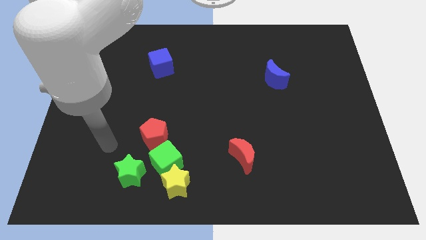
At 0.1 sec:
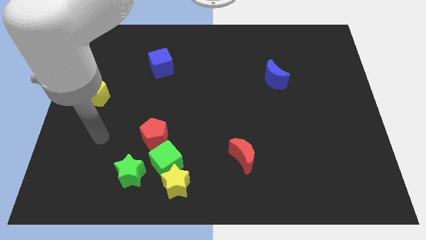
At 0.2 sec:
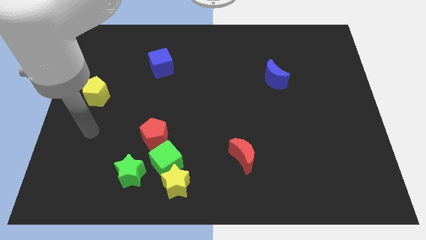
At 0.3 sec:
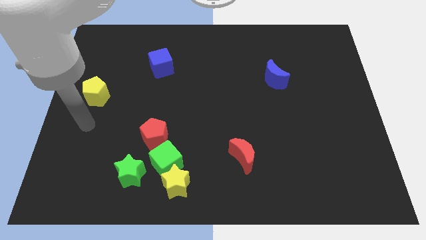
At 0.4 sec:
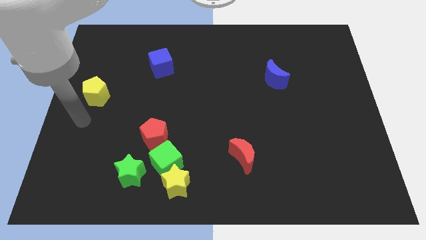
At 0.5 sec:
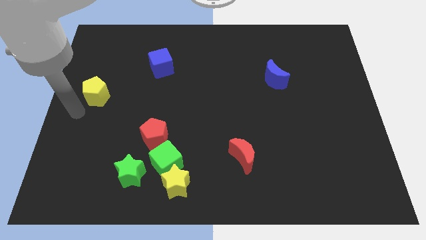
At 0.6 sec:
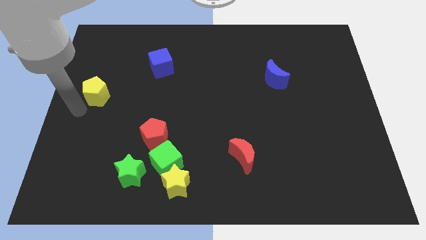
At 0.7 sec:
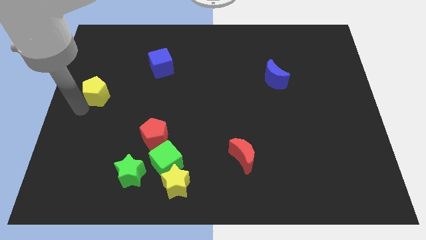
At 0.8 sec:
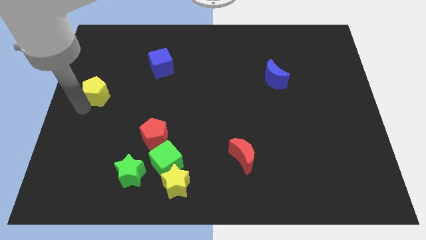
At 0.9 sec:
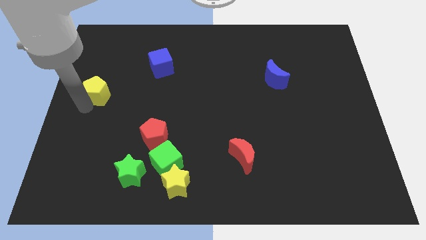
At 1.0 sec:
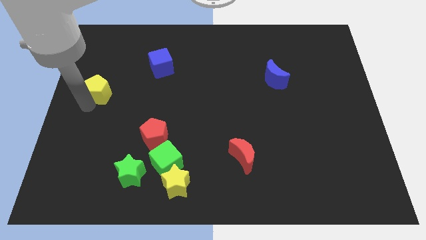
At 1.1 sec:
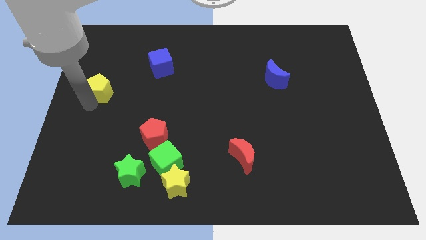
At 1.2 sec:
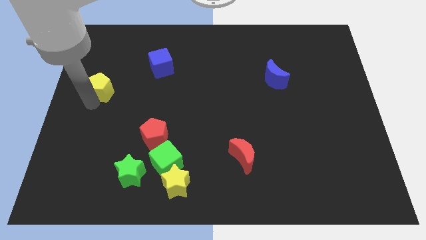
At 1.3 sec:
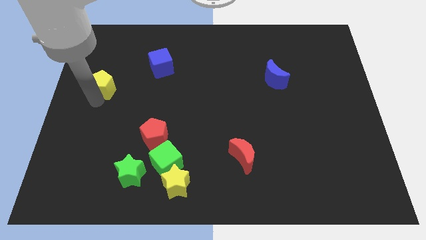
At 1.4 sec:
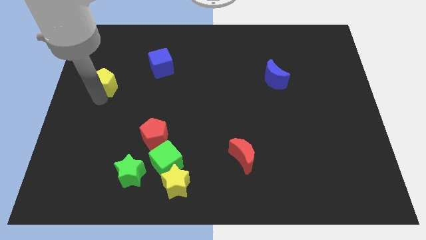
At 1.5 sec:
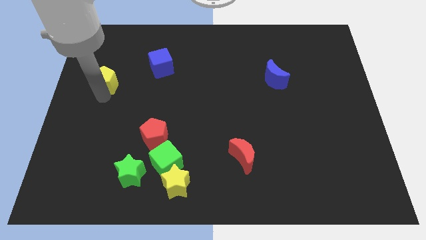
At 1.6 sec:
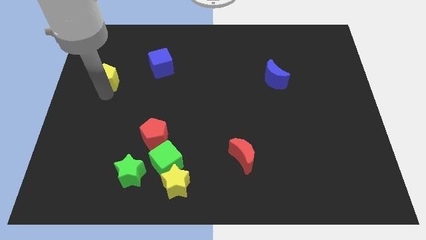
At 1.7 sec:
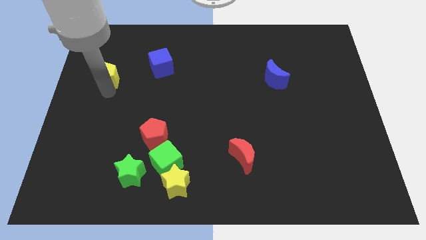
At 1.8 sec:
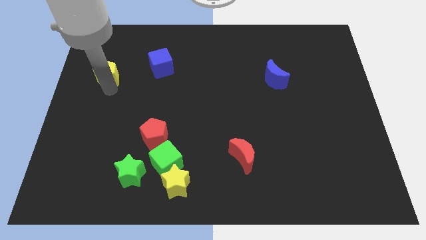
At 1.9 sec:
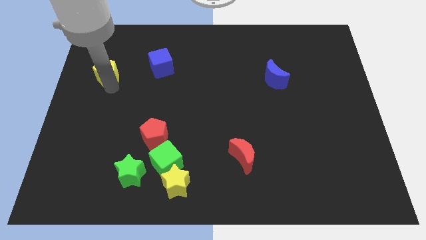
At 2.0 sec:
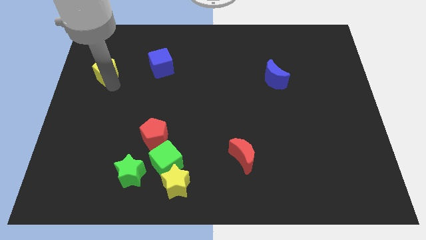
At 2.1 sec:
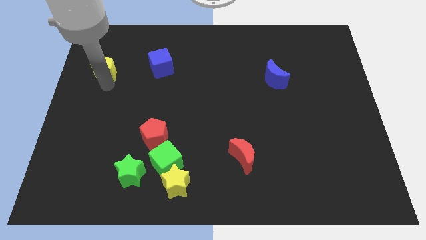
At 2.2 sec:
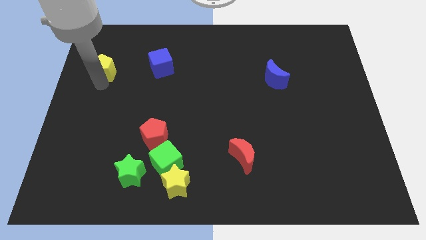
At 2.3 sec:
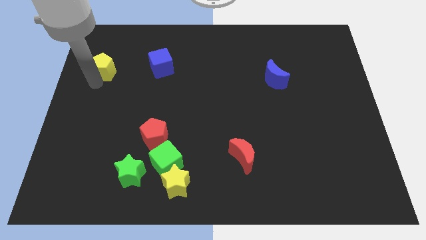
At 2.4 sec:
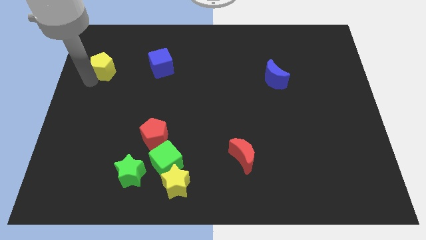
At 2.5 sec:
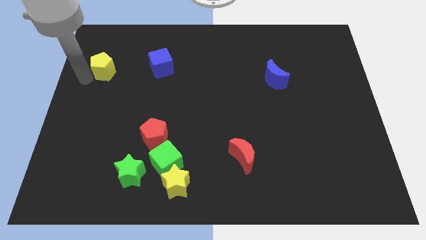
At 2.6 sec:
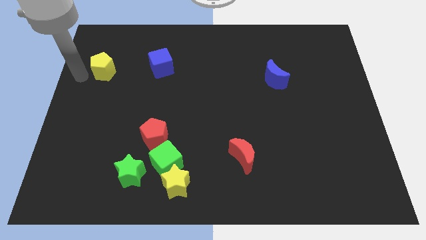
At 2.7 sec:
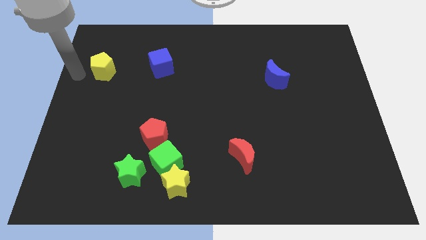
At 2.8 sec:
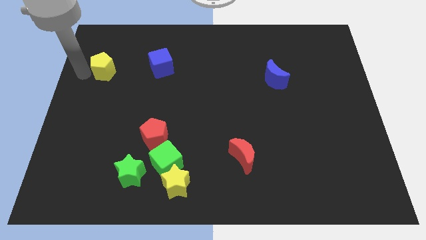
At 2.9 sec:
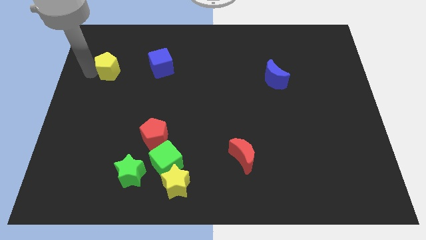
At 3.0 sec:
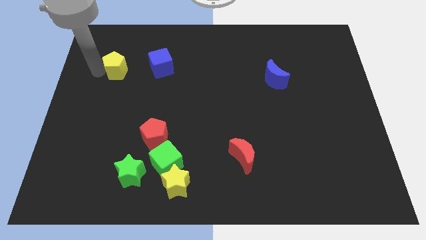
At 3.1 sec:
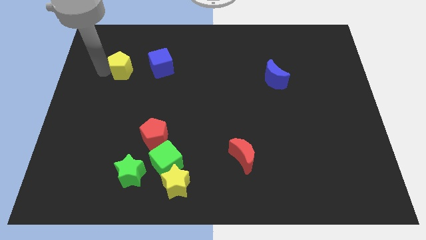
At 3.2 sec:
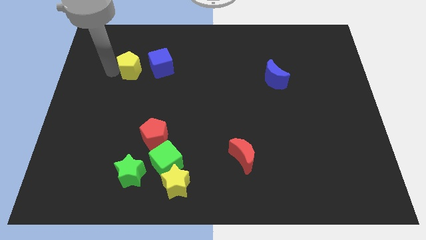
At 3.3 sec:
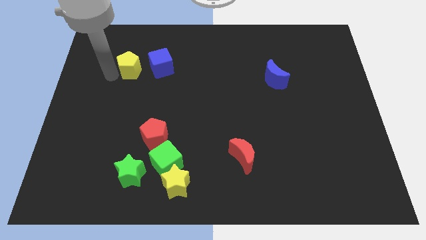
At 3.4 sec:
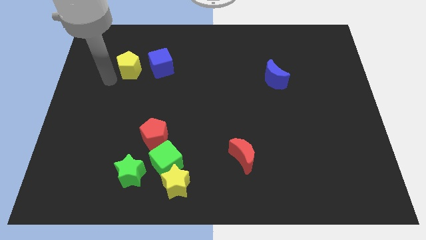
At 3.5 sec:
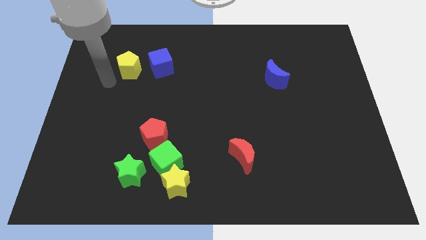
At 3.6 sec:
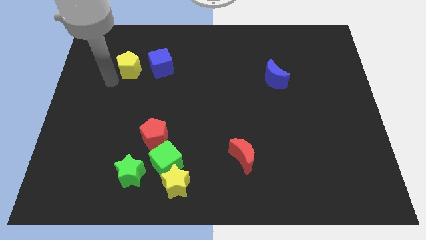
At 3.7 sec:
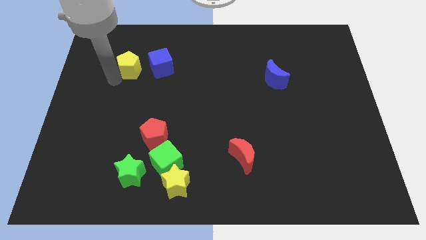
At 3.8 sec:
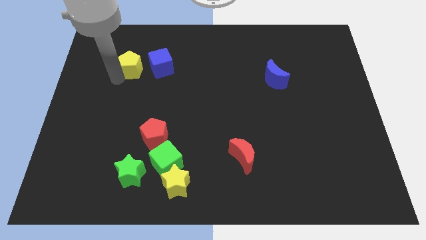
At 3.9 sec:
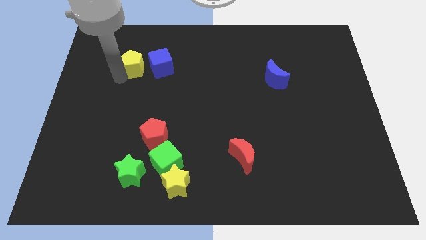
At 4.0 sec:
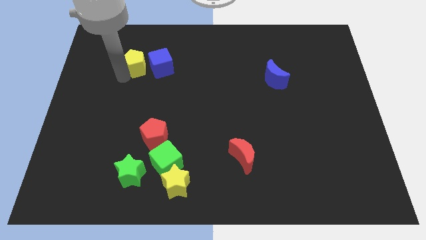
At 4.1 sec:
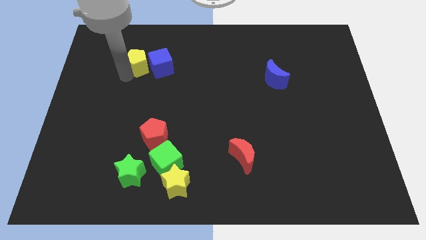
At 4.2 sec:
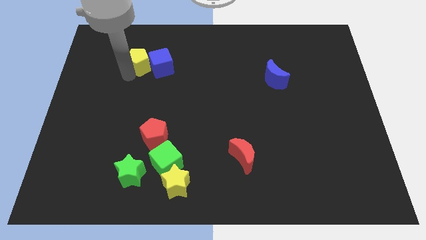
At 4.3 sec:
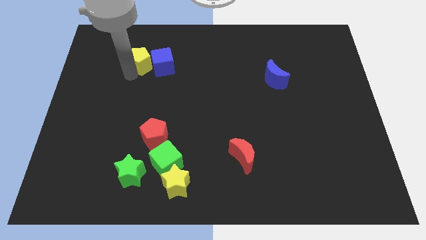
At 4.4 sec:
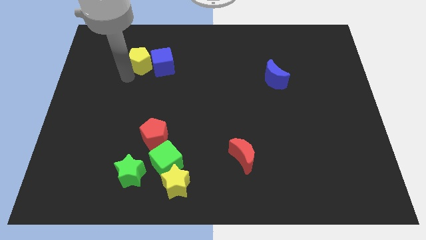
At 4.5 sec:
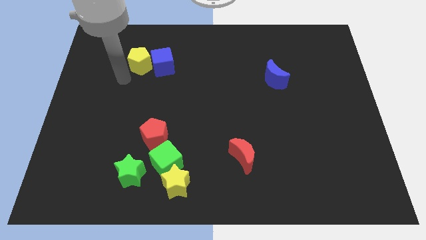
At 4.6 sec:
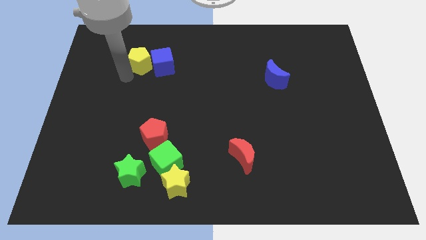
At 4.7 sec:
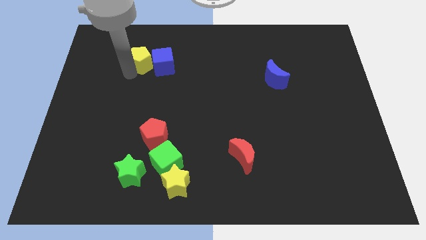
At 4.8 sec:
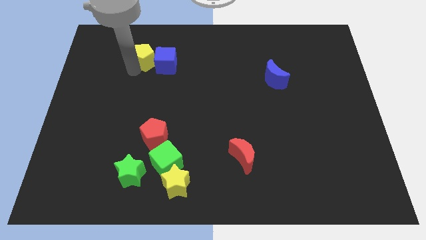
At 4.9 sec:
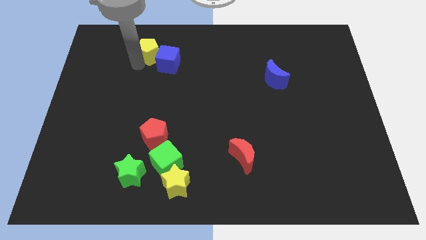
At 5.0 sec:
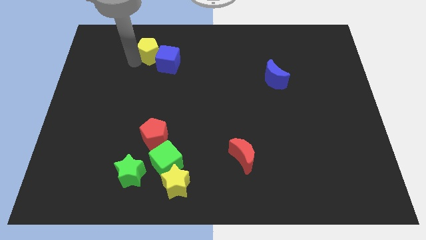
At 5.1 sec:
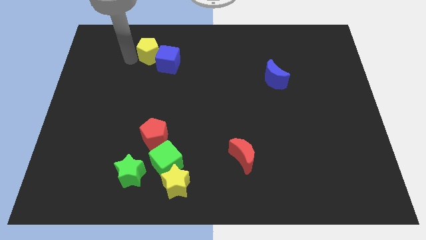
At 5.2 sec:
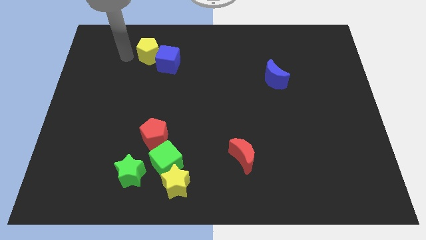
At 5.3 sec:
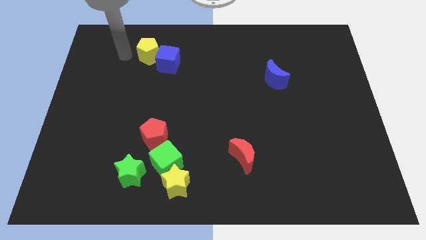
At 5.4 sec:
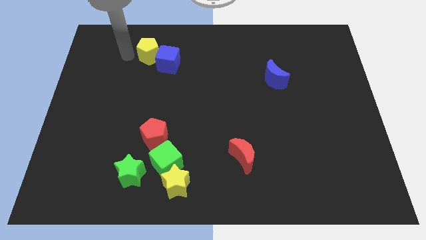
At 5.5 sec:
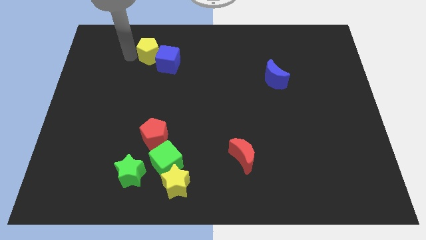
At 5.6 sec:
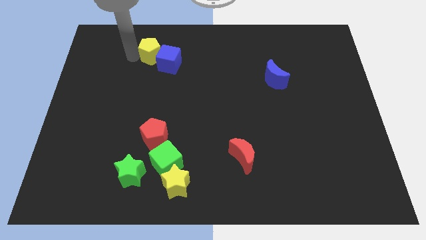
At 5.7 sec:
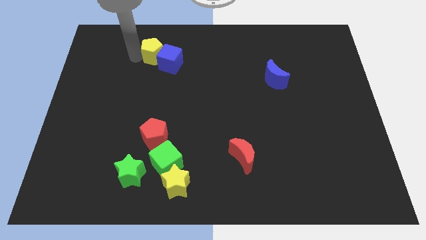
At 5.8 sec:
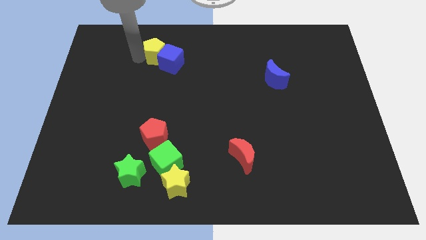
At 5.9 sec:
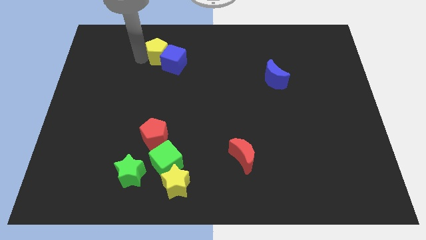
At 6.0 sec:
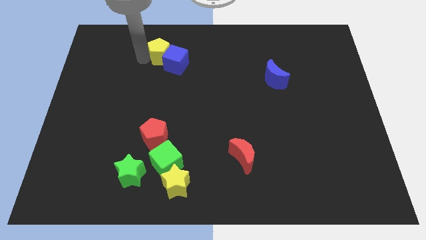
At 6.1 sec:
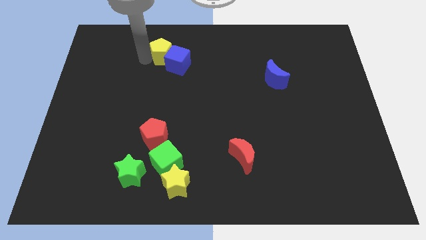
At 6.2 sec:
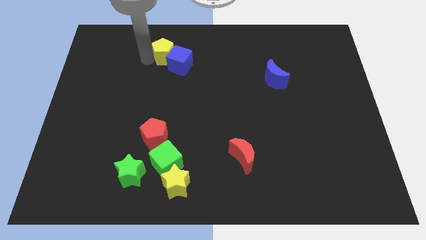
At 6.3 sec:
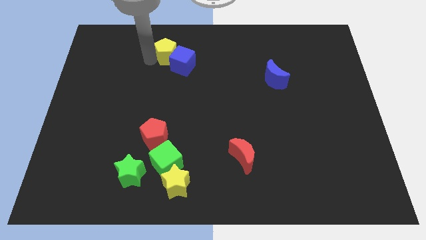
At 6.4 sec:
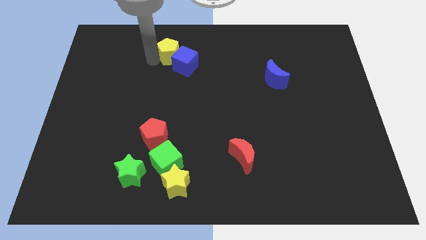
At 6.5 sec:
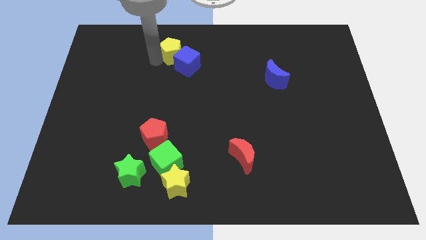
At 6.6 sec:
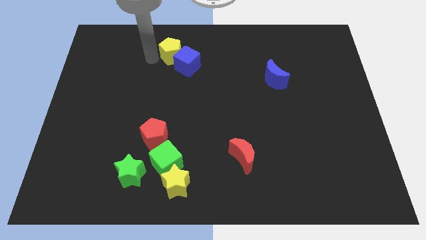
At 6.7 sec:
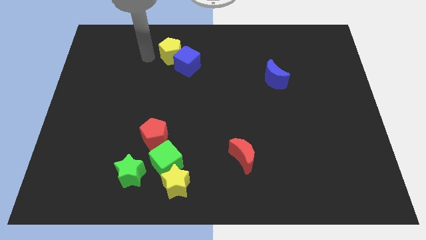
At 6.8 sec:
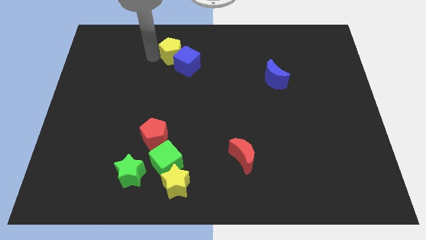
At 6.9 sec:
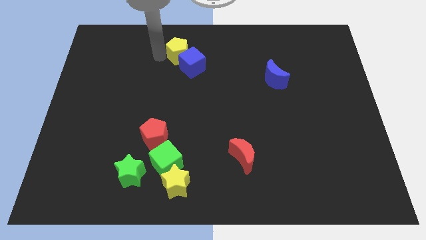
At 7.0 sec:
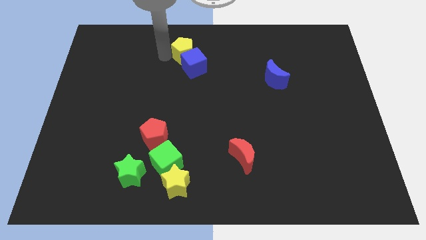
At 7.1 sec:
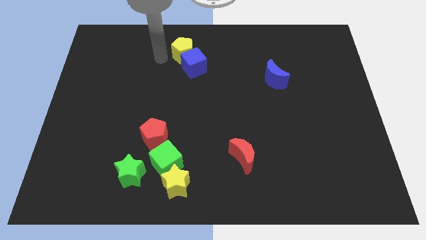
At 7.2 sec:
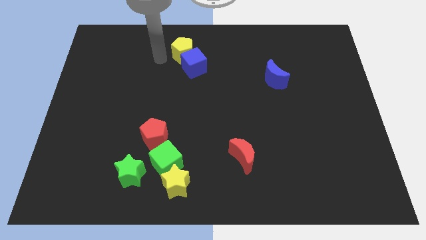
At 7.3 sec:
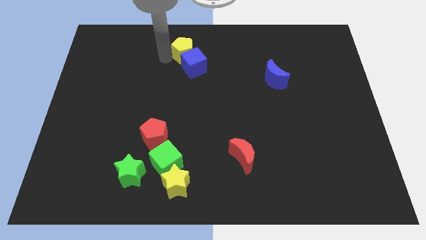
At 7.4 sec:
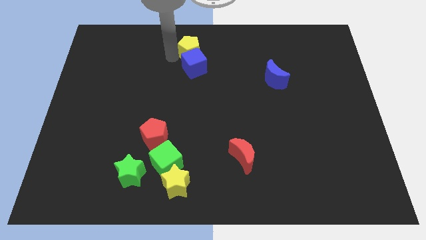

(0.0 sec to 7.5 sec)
slide the yellow pentagon to the towards your base
